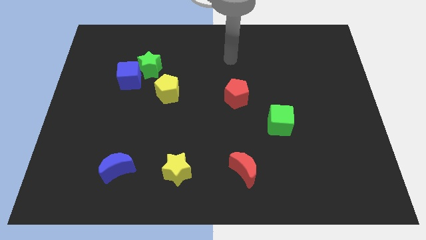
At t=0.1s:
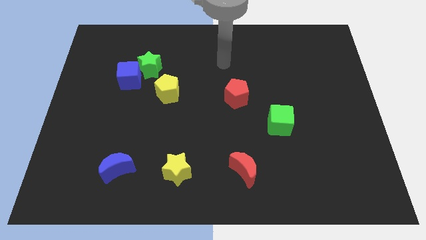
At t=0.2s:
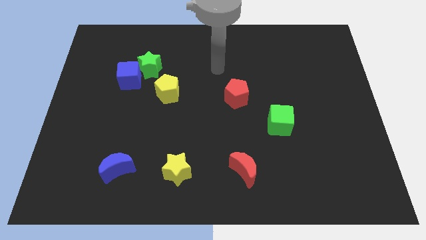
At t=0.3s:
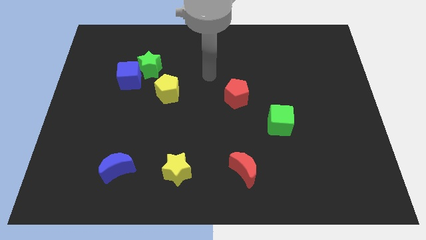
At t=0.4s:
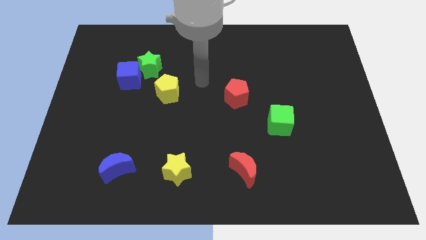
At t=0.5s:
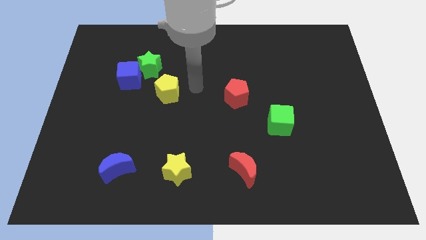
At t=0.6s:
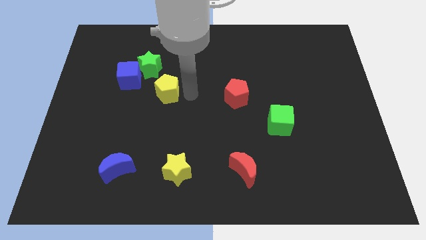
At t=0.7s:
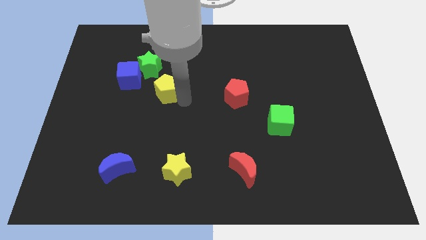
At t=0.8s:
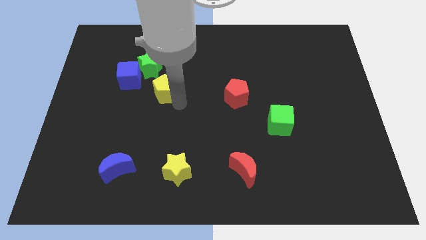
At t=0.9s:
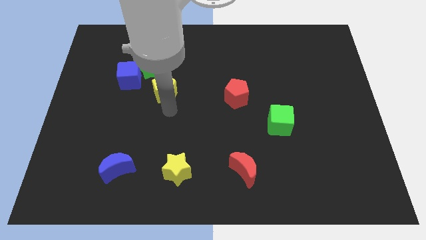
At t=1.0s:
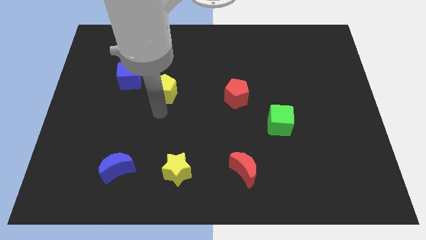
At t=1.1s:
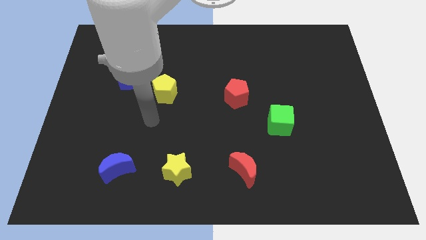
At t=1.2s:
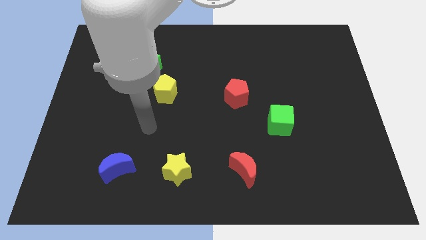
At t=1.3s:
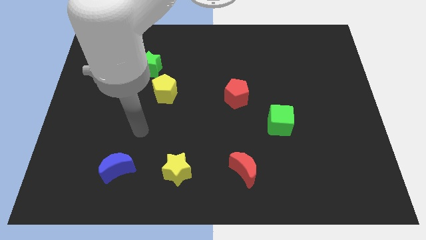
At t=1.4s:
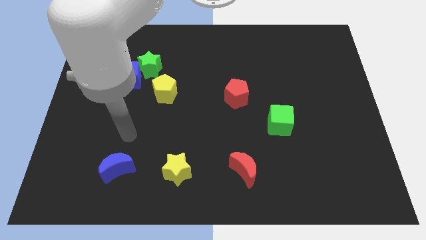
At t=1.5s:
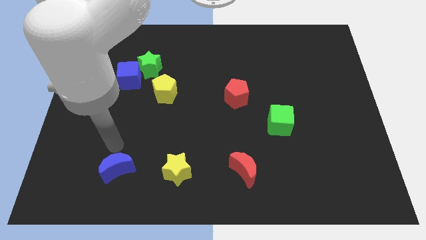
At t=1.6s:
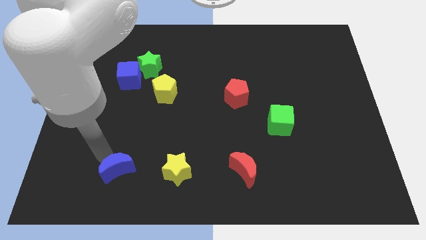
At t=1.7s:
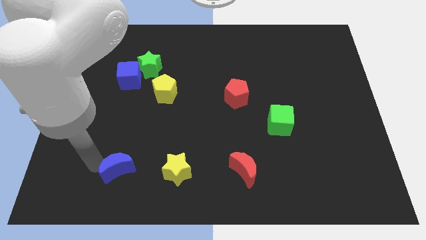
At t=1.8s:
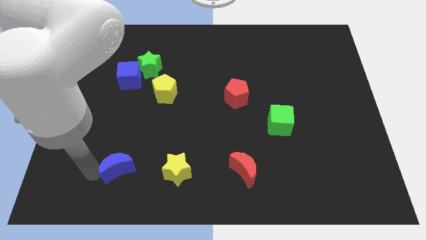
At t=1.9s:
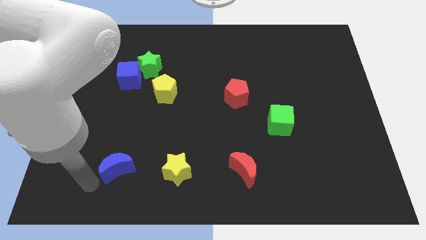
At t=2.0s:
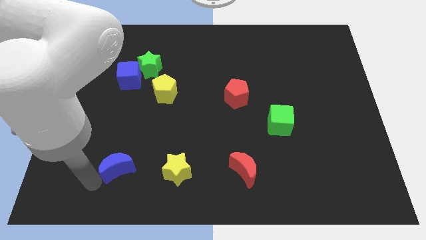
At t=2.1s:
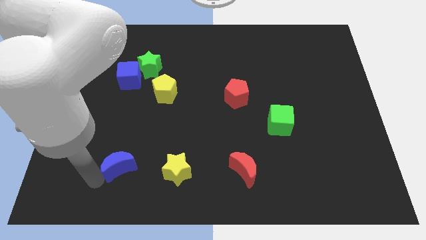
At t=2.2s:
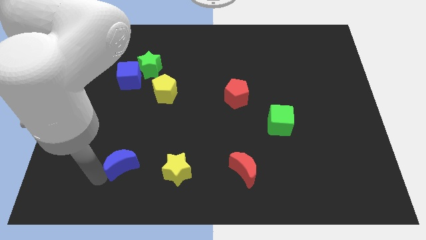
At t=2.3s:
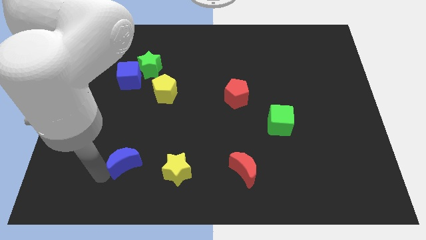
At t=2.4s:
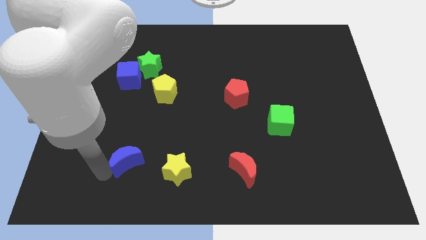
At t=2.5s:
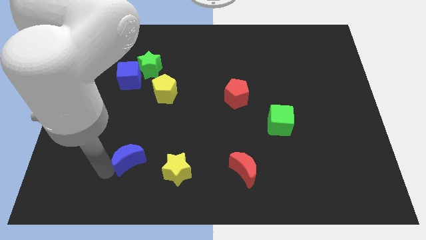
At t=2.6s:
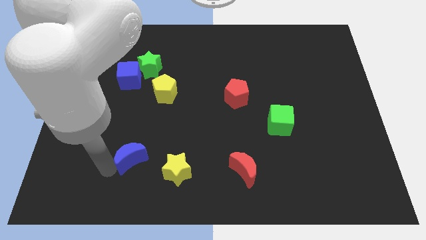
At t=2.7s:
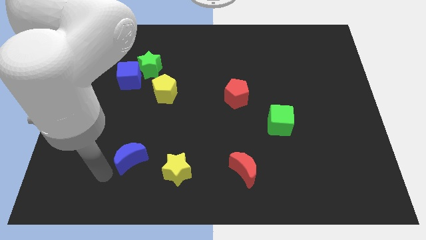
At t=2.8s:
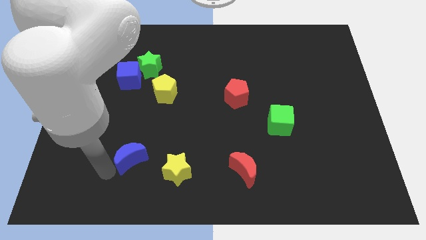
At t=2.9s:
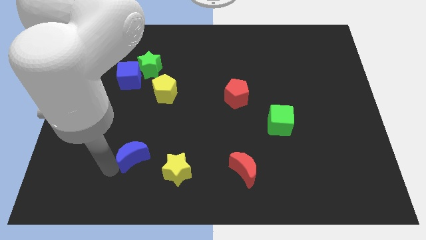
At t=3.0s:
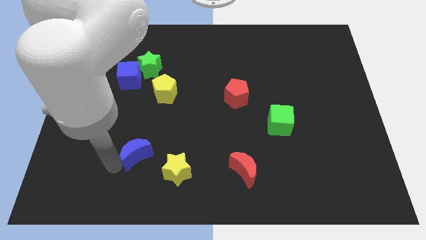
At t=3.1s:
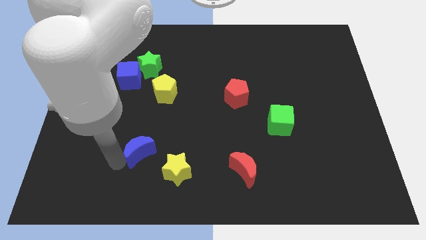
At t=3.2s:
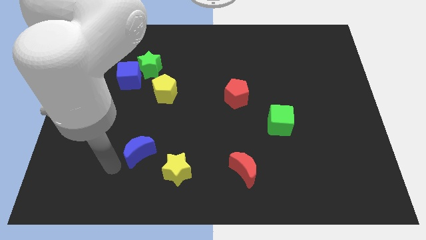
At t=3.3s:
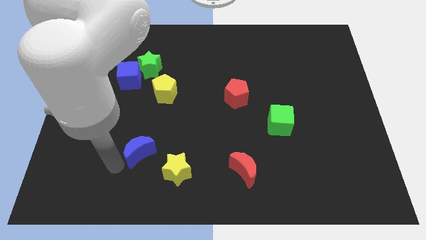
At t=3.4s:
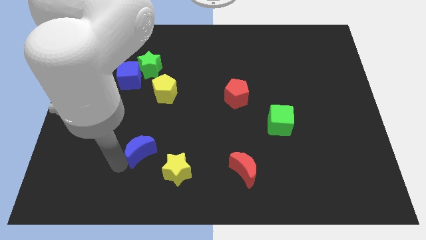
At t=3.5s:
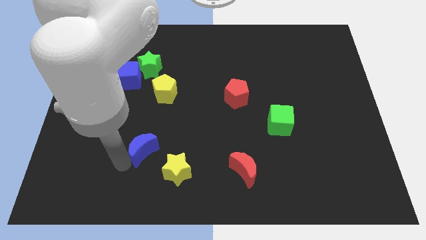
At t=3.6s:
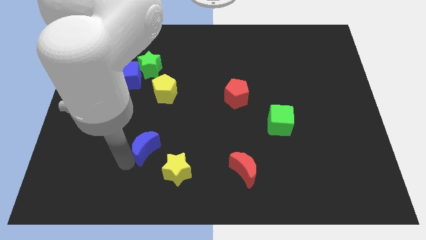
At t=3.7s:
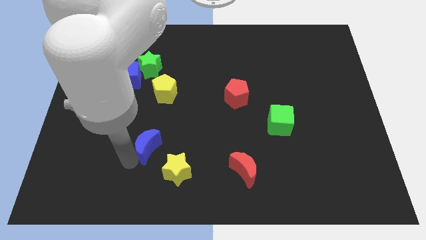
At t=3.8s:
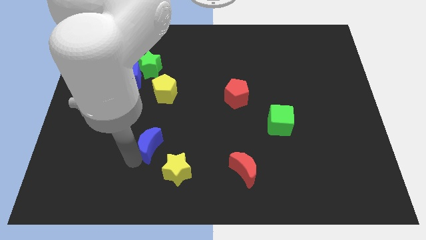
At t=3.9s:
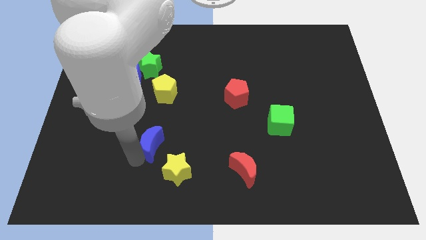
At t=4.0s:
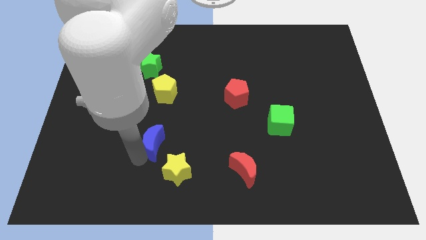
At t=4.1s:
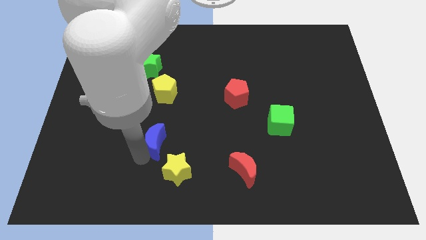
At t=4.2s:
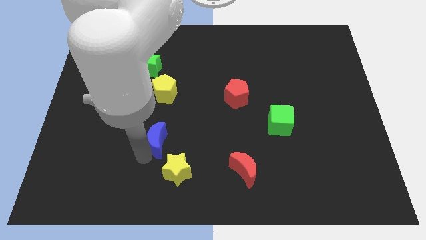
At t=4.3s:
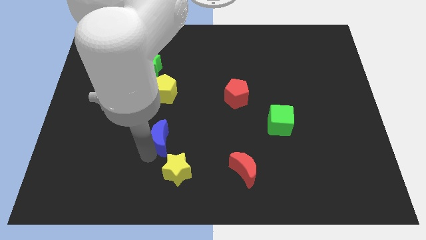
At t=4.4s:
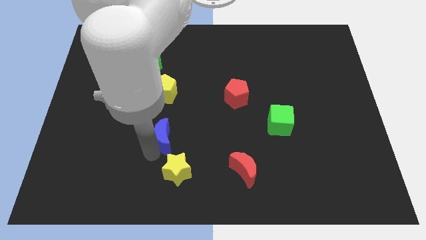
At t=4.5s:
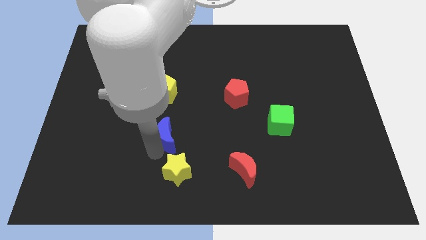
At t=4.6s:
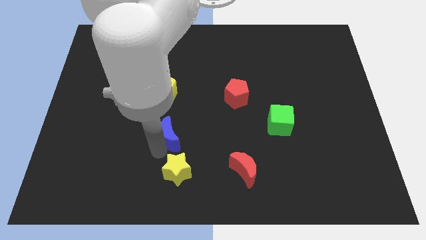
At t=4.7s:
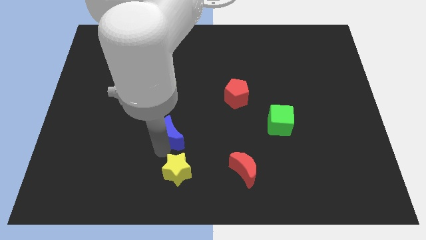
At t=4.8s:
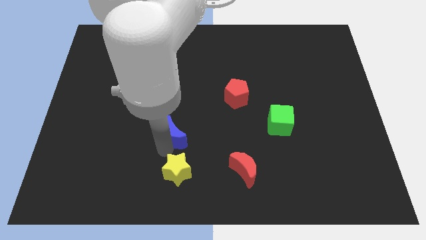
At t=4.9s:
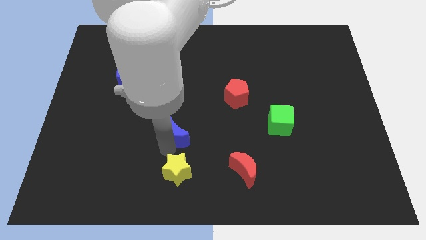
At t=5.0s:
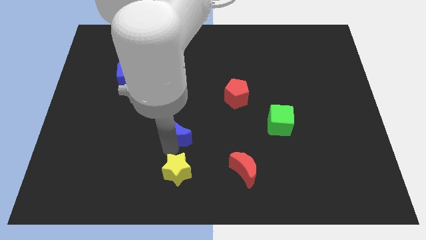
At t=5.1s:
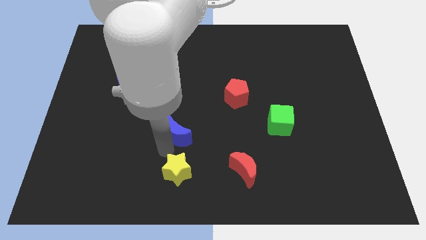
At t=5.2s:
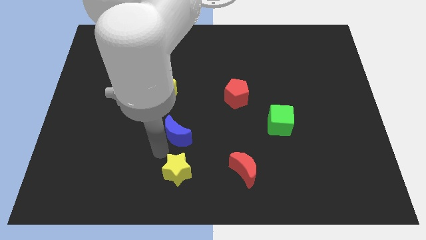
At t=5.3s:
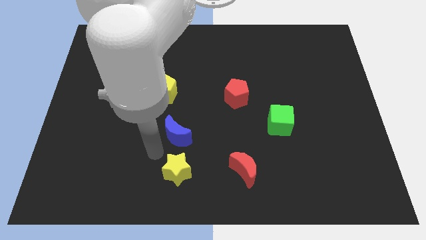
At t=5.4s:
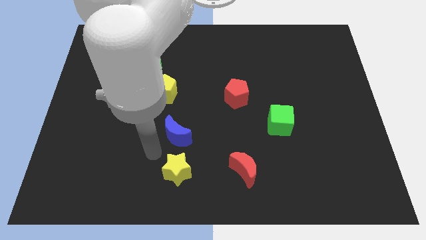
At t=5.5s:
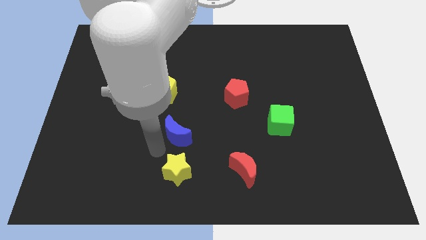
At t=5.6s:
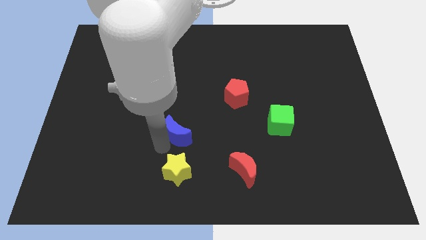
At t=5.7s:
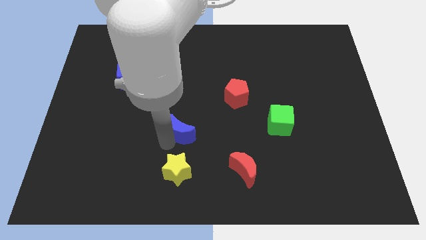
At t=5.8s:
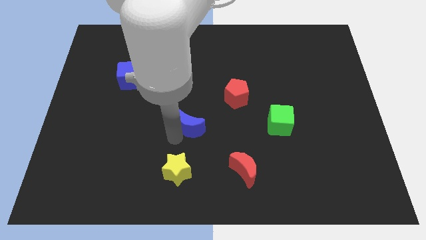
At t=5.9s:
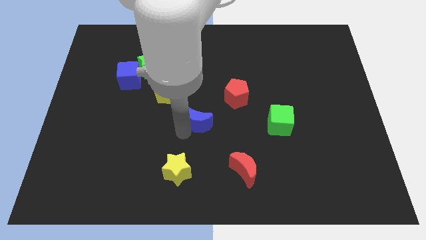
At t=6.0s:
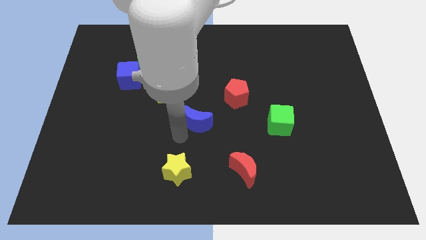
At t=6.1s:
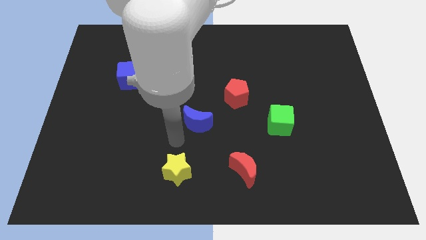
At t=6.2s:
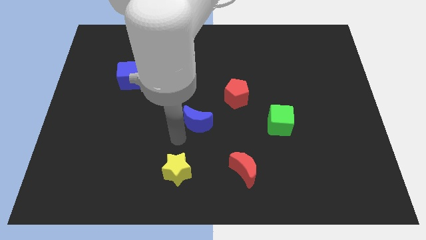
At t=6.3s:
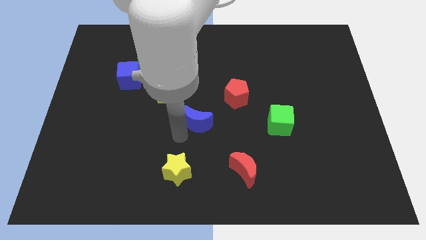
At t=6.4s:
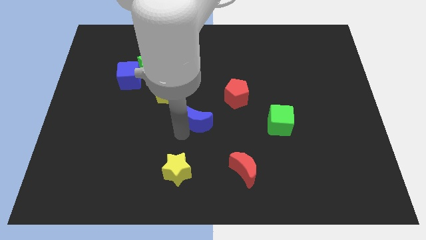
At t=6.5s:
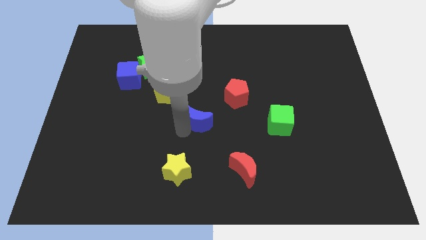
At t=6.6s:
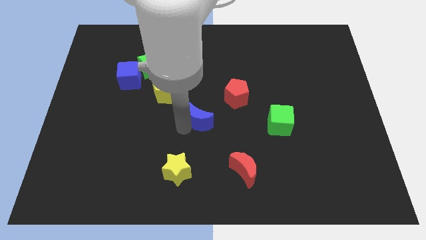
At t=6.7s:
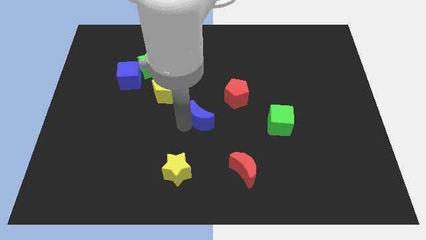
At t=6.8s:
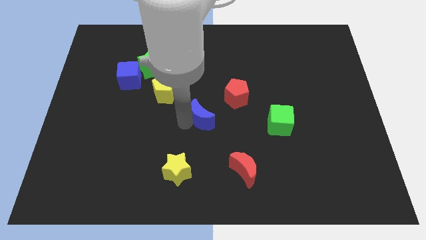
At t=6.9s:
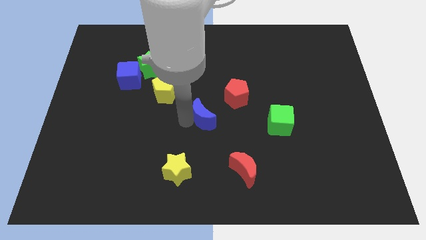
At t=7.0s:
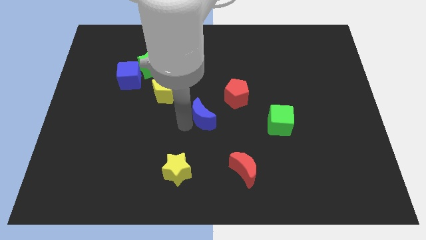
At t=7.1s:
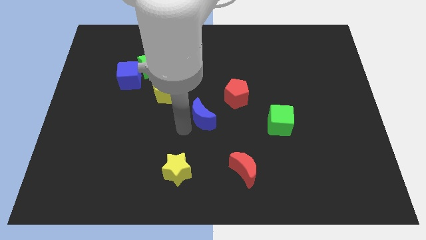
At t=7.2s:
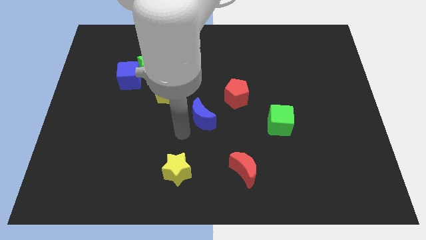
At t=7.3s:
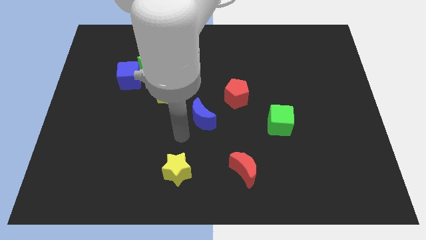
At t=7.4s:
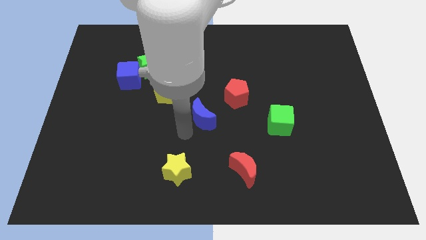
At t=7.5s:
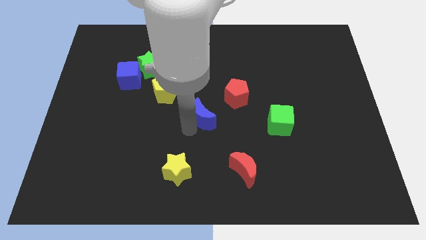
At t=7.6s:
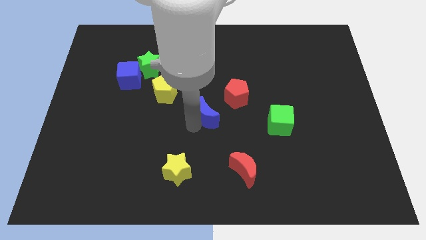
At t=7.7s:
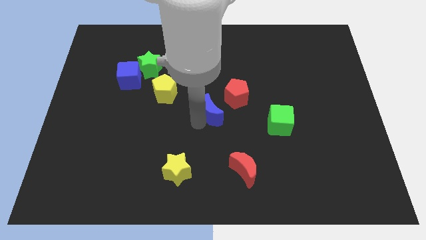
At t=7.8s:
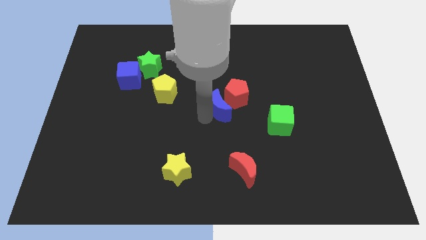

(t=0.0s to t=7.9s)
move the blue moon to the red pentagon

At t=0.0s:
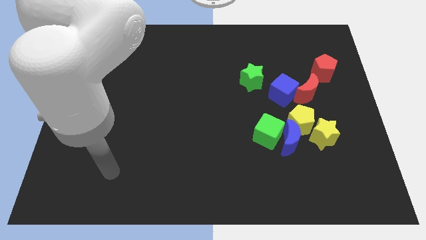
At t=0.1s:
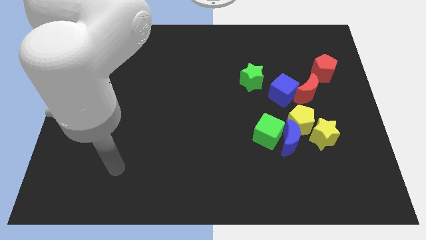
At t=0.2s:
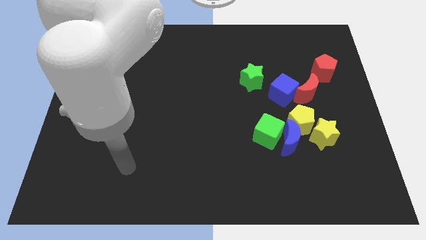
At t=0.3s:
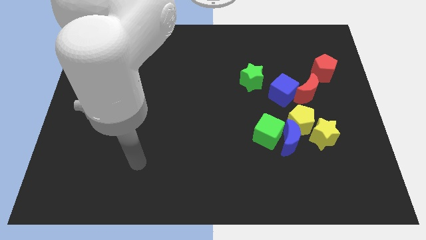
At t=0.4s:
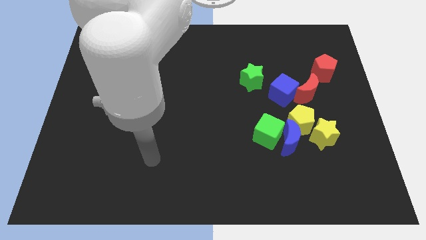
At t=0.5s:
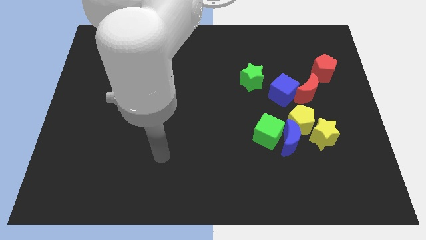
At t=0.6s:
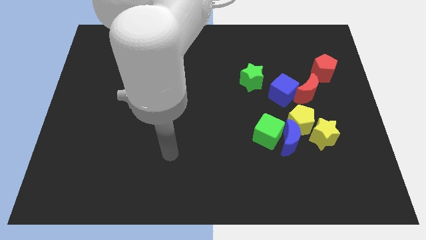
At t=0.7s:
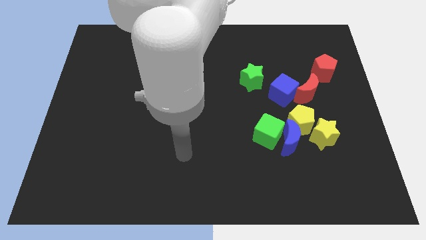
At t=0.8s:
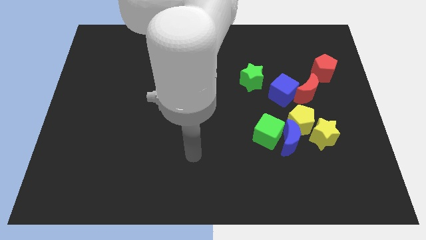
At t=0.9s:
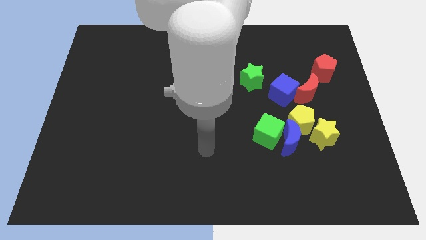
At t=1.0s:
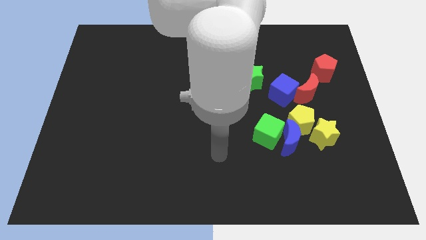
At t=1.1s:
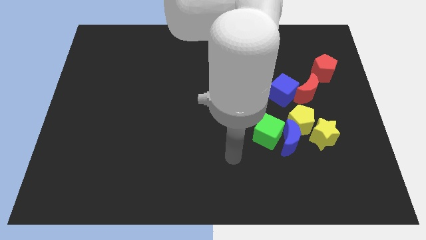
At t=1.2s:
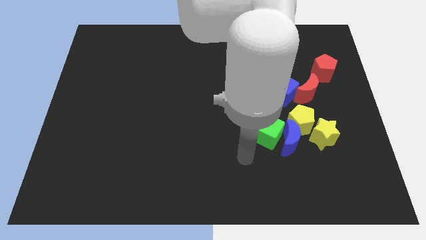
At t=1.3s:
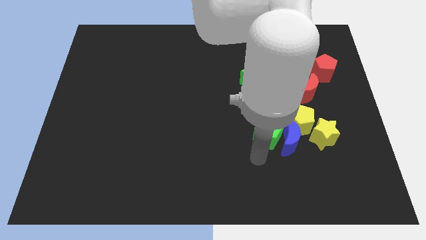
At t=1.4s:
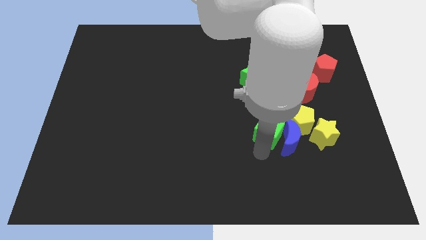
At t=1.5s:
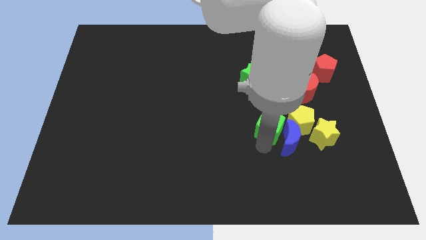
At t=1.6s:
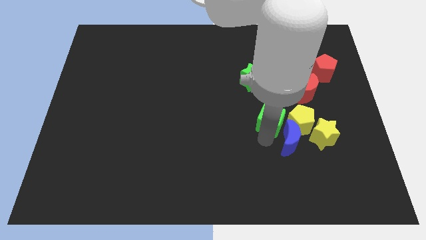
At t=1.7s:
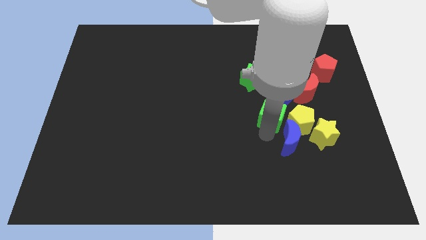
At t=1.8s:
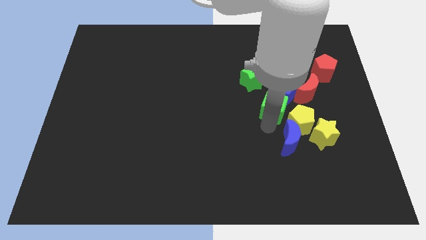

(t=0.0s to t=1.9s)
slide the green cube next to the blue cube
